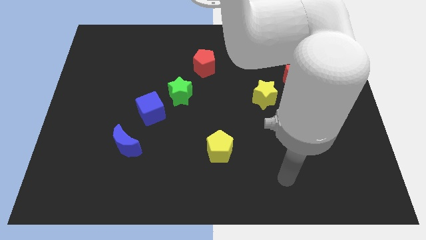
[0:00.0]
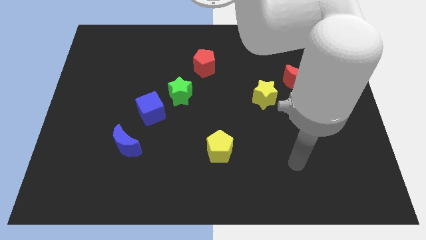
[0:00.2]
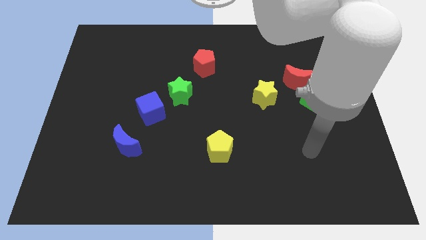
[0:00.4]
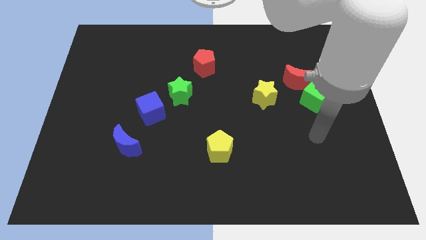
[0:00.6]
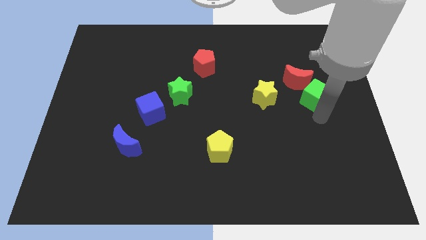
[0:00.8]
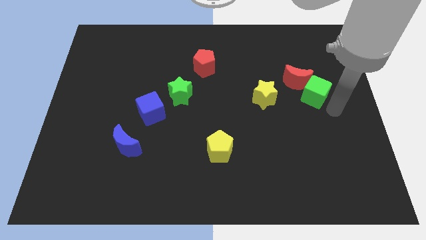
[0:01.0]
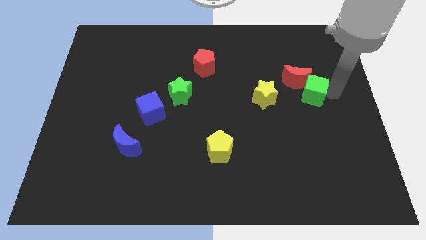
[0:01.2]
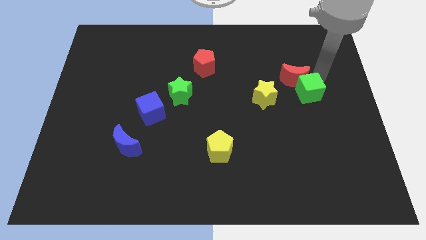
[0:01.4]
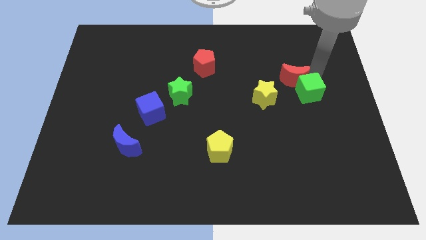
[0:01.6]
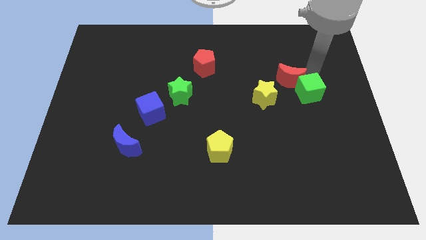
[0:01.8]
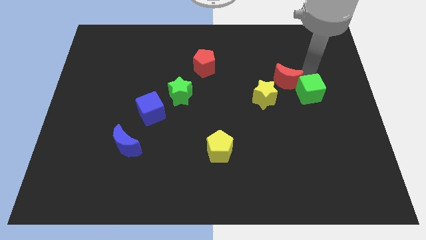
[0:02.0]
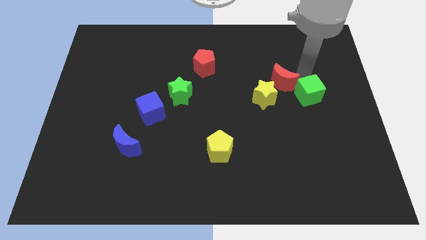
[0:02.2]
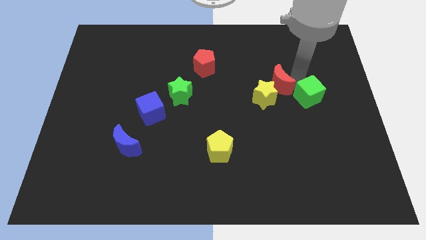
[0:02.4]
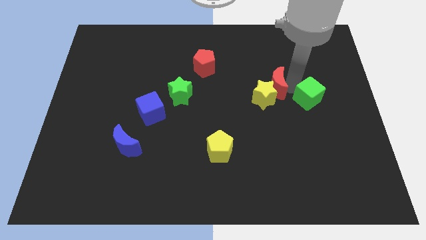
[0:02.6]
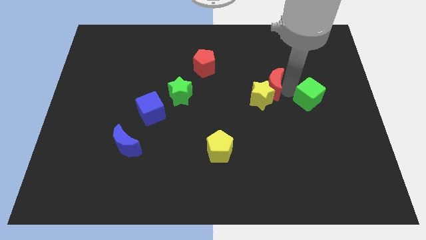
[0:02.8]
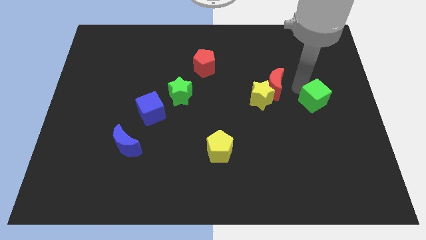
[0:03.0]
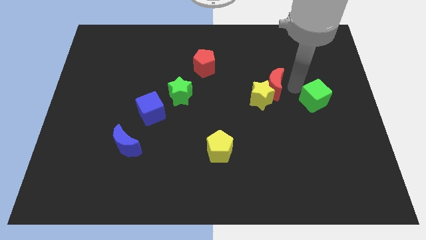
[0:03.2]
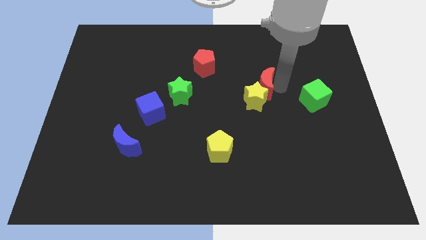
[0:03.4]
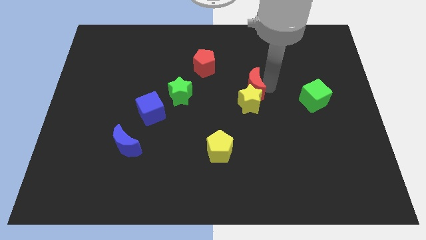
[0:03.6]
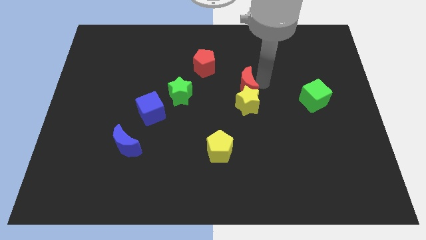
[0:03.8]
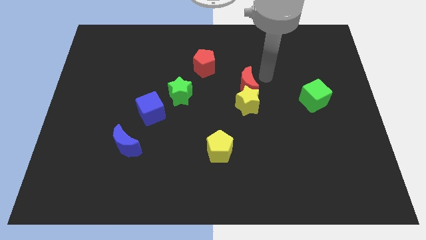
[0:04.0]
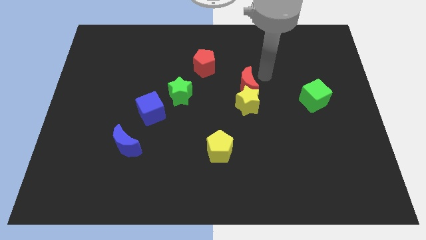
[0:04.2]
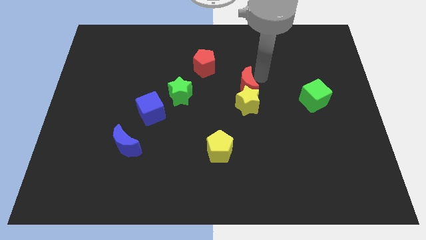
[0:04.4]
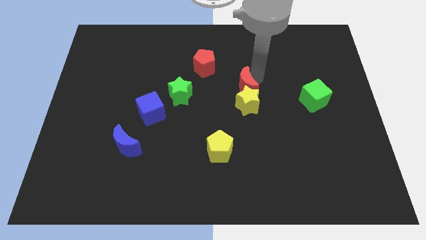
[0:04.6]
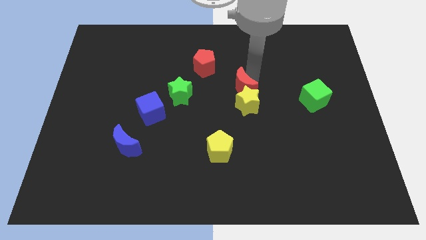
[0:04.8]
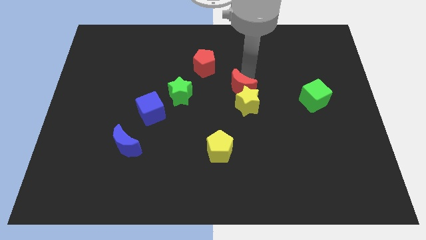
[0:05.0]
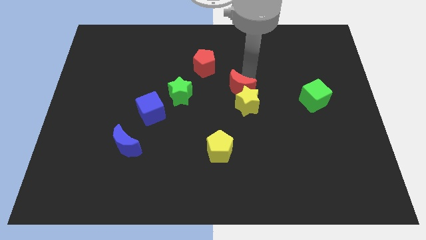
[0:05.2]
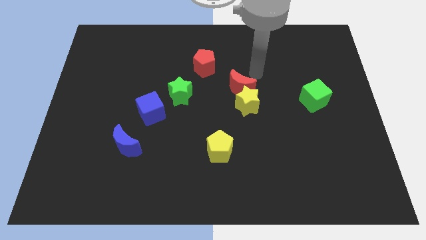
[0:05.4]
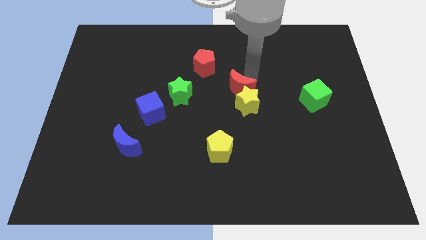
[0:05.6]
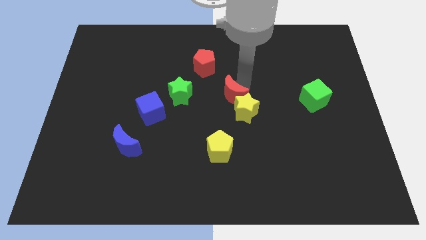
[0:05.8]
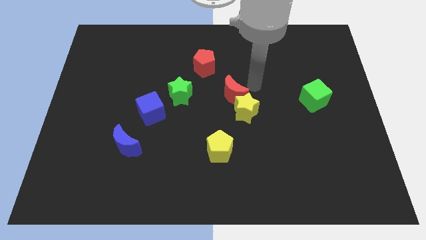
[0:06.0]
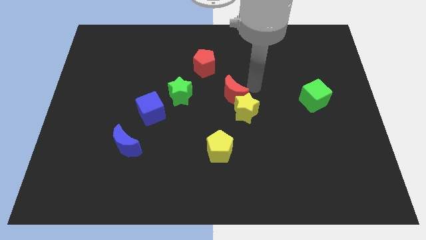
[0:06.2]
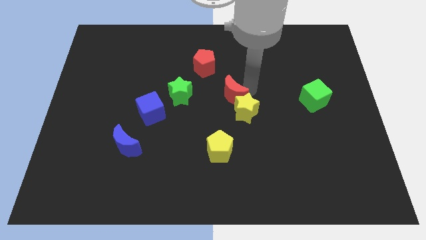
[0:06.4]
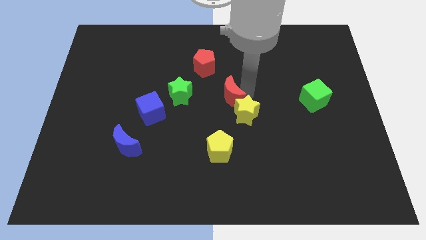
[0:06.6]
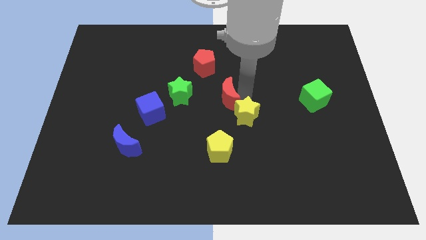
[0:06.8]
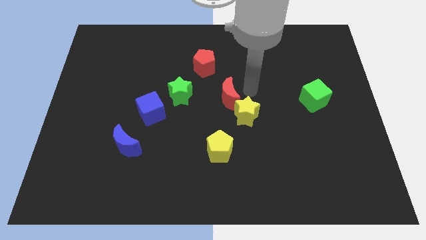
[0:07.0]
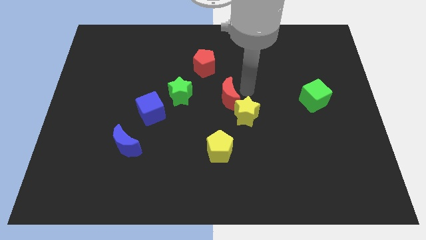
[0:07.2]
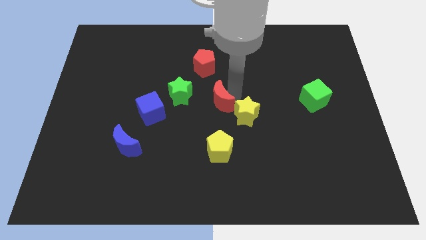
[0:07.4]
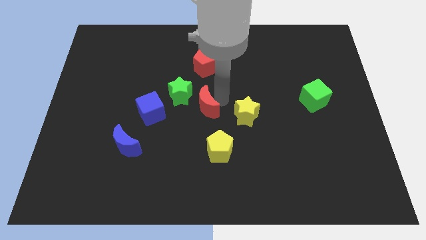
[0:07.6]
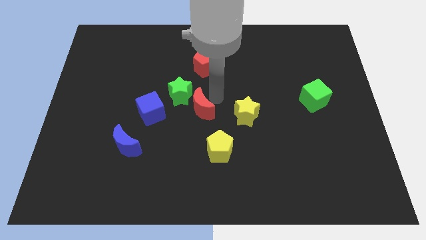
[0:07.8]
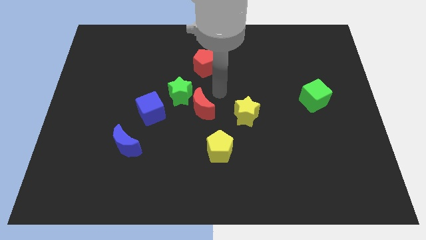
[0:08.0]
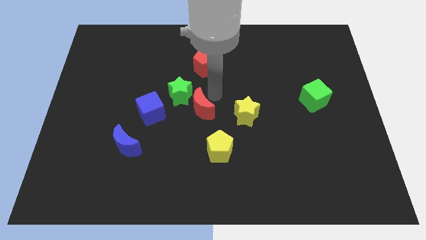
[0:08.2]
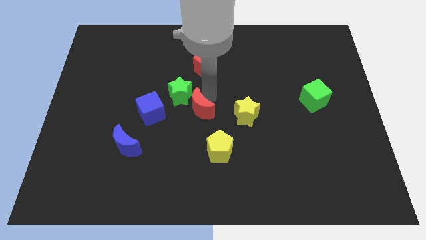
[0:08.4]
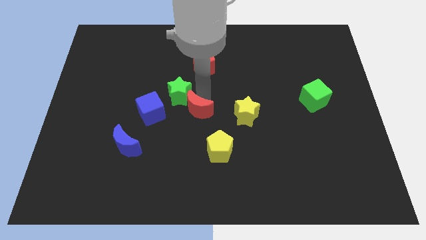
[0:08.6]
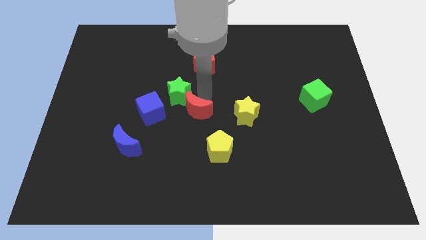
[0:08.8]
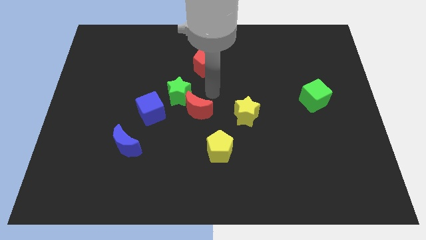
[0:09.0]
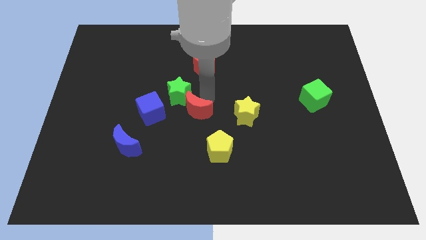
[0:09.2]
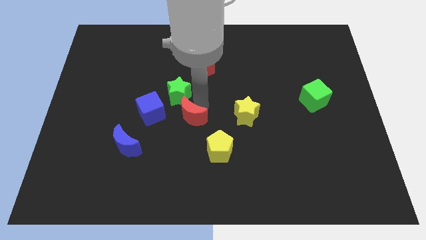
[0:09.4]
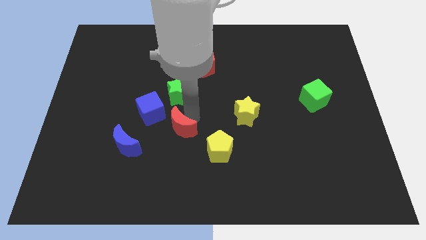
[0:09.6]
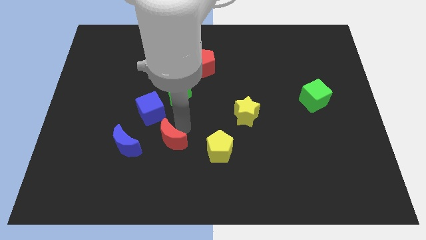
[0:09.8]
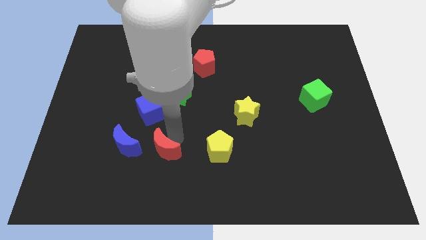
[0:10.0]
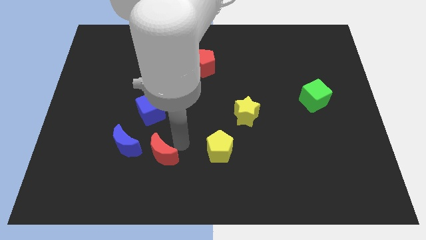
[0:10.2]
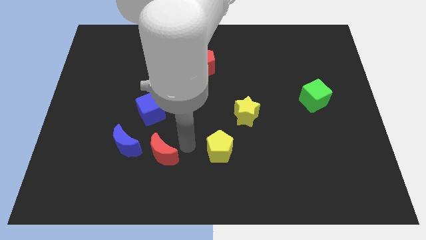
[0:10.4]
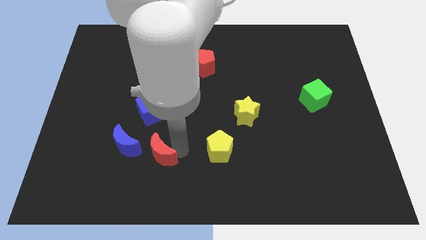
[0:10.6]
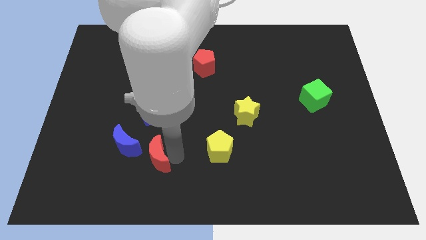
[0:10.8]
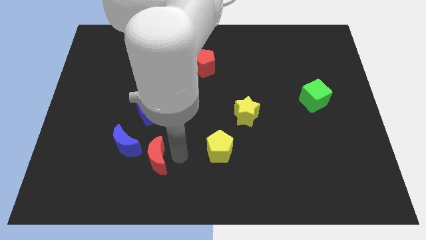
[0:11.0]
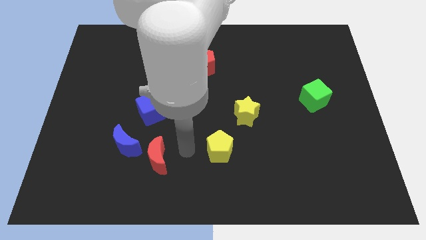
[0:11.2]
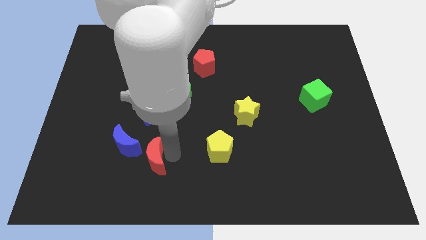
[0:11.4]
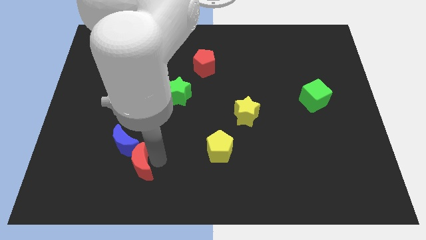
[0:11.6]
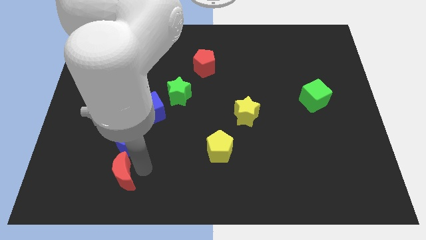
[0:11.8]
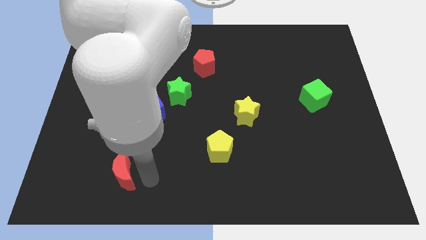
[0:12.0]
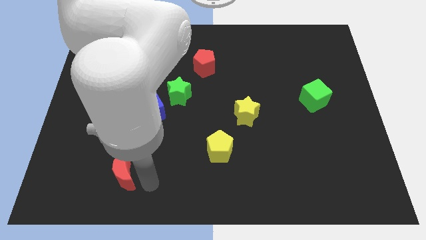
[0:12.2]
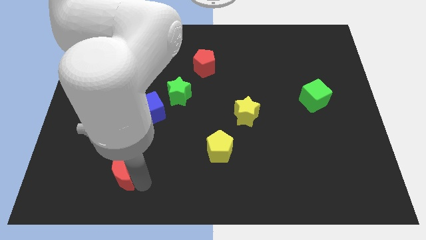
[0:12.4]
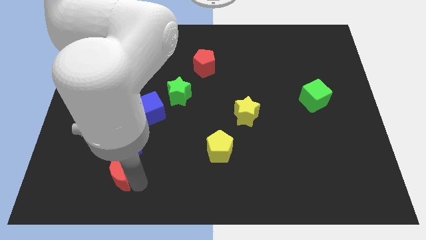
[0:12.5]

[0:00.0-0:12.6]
put the red moon diagonally down and to the left of the blue moon

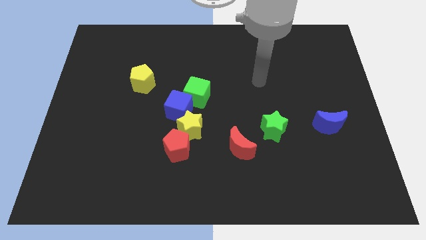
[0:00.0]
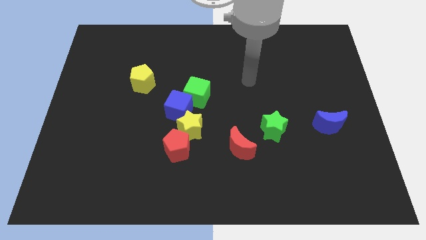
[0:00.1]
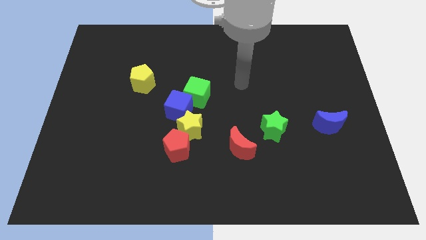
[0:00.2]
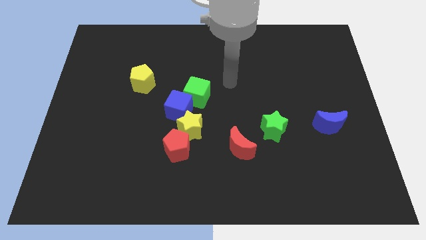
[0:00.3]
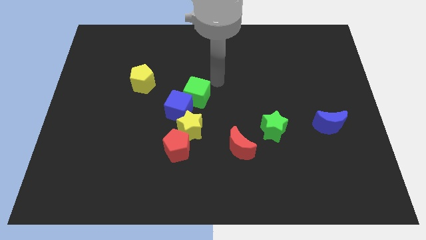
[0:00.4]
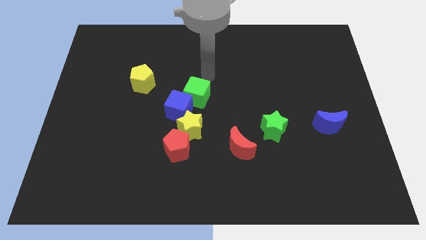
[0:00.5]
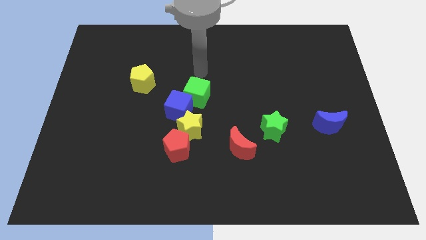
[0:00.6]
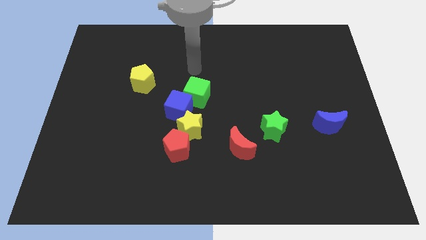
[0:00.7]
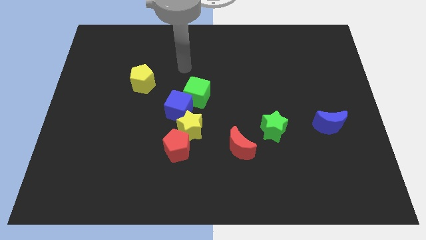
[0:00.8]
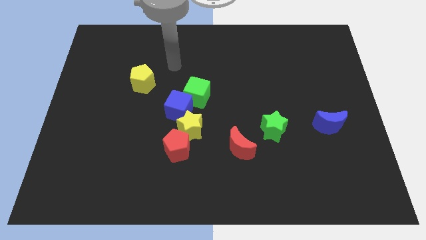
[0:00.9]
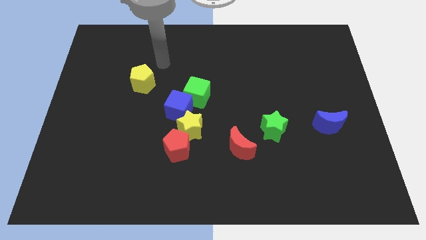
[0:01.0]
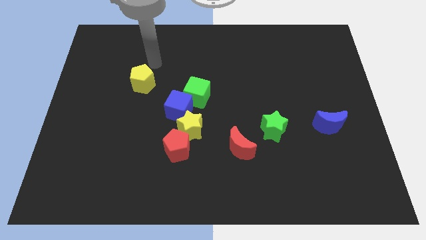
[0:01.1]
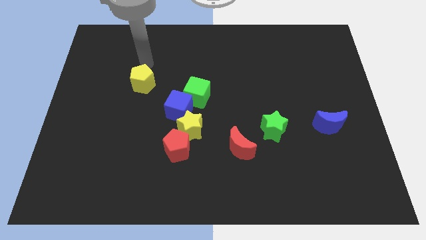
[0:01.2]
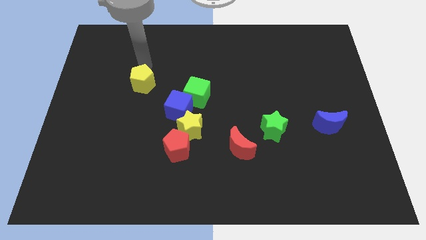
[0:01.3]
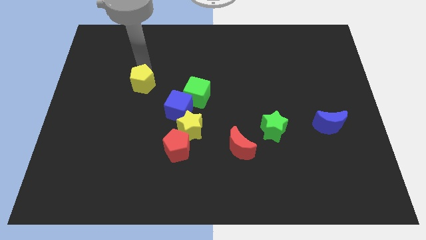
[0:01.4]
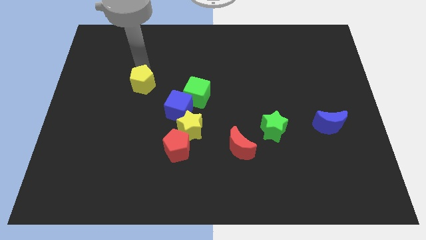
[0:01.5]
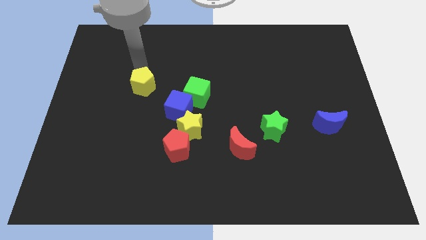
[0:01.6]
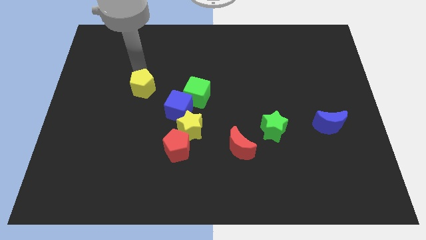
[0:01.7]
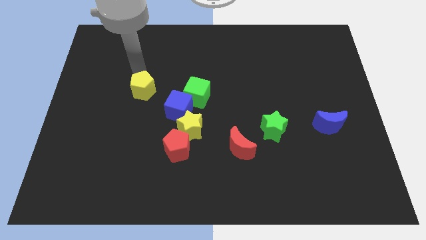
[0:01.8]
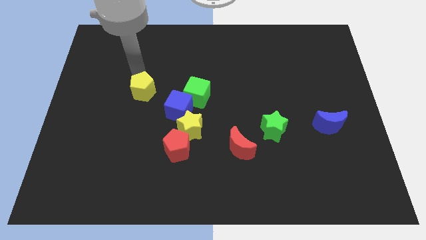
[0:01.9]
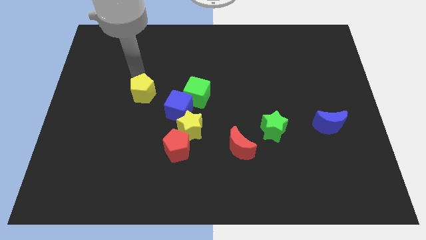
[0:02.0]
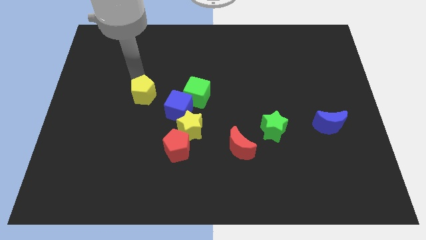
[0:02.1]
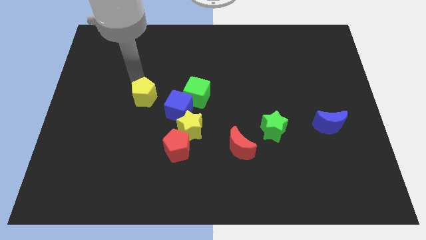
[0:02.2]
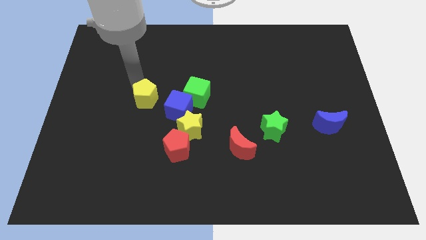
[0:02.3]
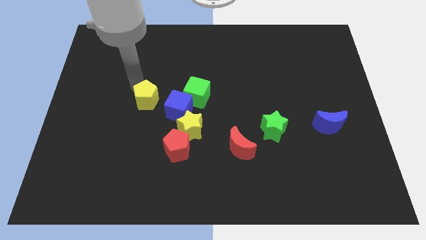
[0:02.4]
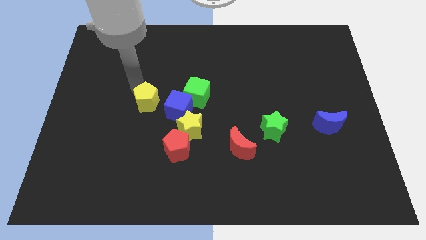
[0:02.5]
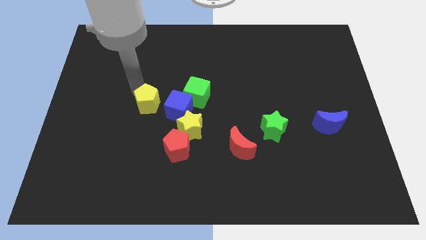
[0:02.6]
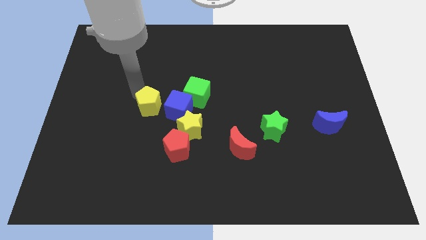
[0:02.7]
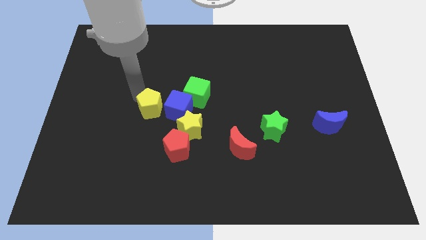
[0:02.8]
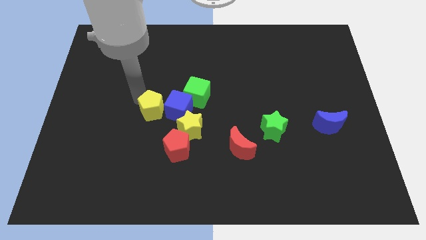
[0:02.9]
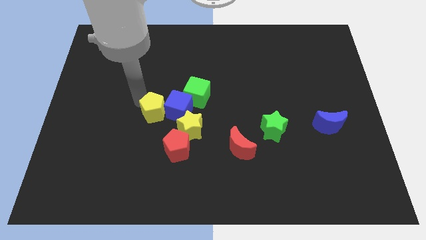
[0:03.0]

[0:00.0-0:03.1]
move the yellow pentagon to the top left side of the red pentagon
